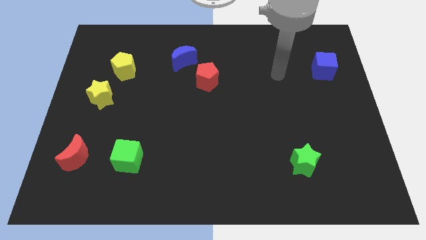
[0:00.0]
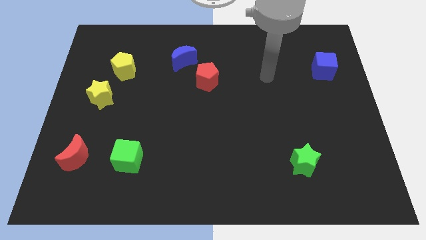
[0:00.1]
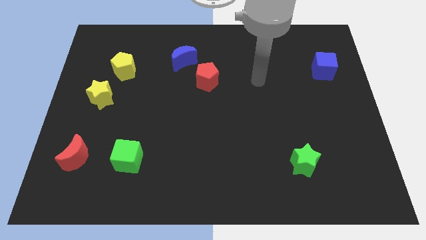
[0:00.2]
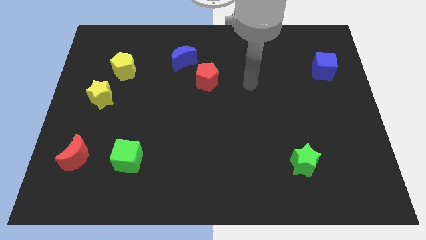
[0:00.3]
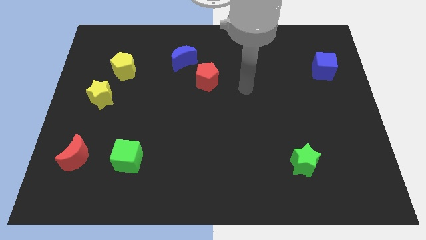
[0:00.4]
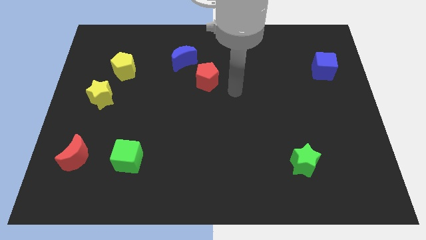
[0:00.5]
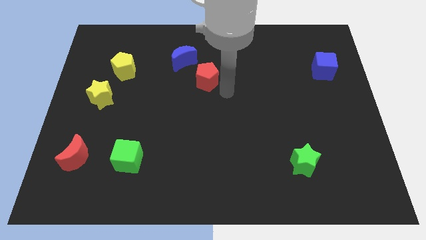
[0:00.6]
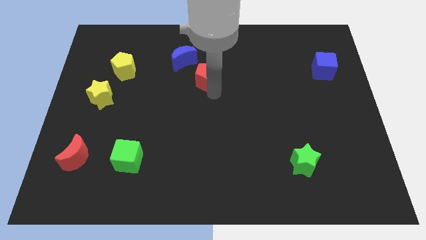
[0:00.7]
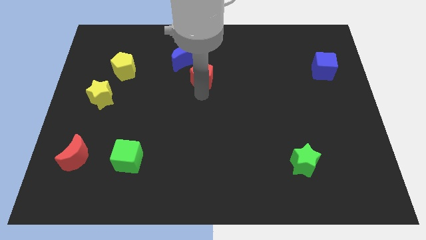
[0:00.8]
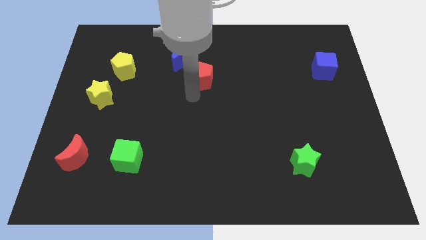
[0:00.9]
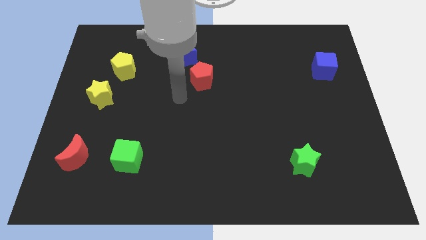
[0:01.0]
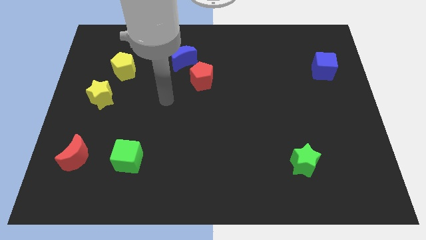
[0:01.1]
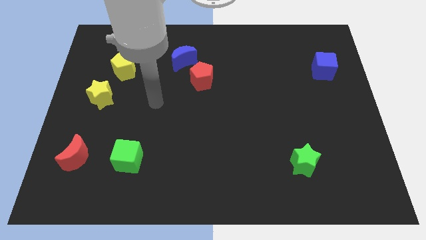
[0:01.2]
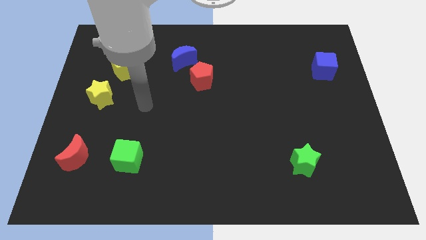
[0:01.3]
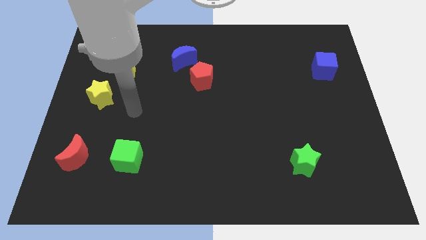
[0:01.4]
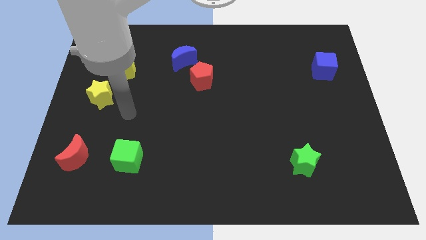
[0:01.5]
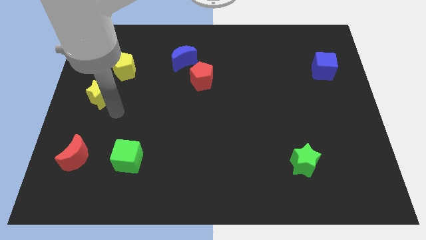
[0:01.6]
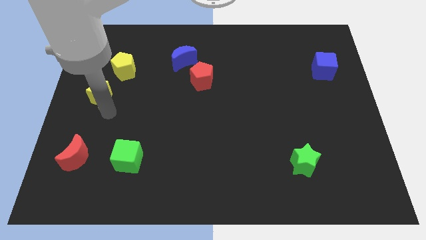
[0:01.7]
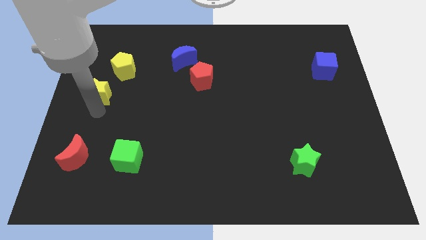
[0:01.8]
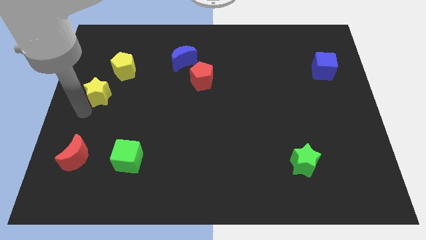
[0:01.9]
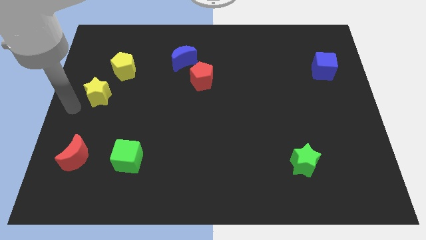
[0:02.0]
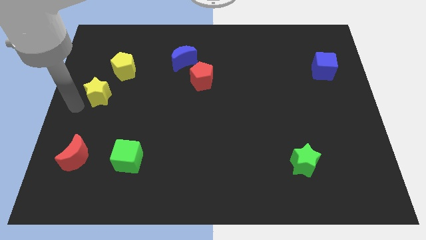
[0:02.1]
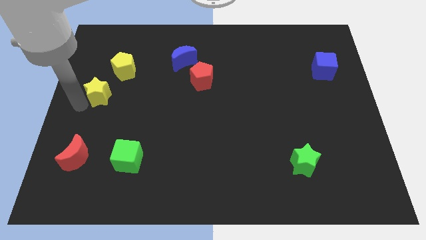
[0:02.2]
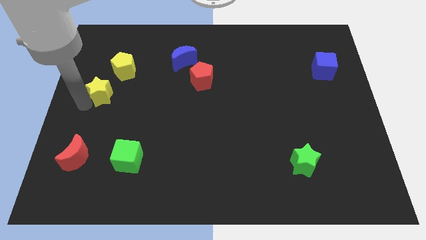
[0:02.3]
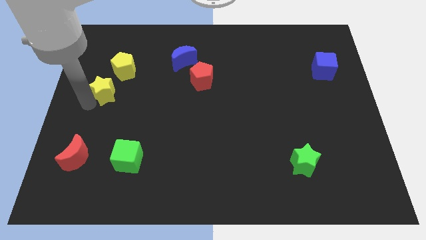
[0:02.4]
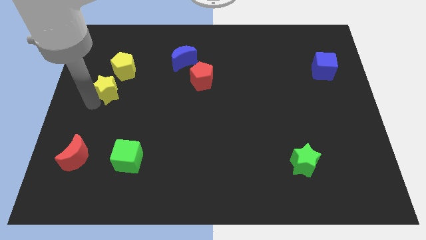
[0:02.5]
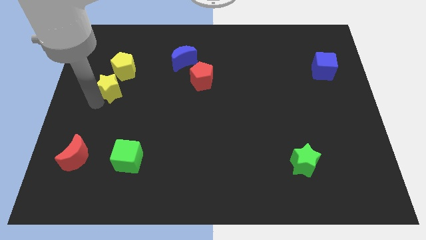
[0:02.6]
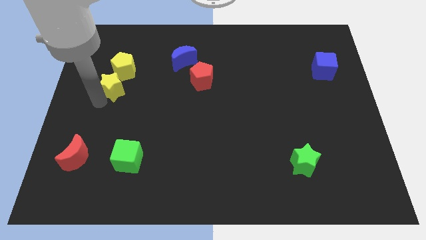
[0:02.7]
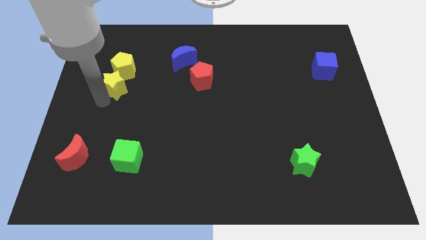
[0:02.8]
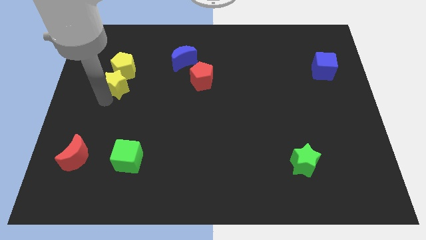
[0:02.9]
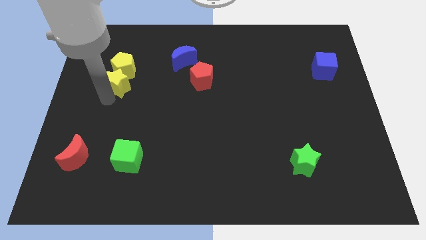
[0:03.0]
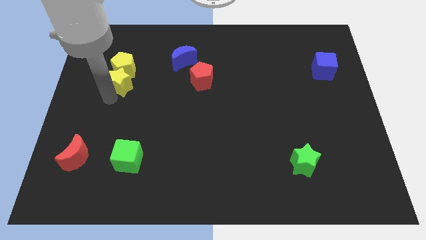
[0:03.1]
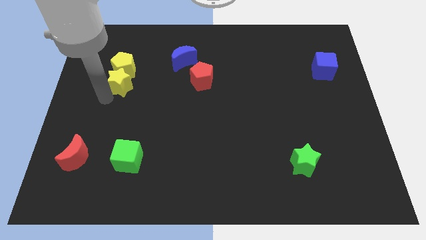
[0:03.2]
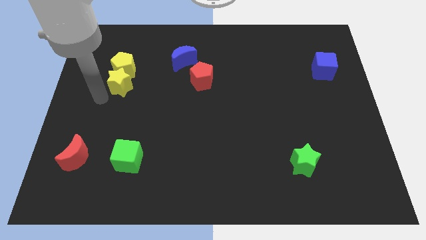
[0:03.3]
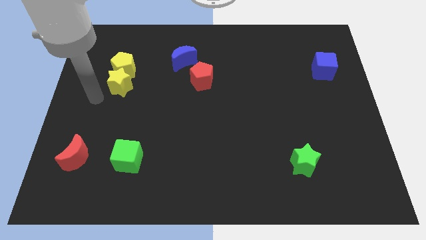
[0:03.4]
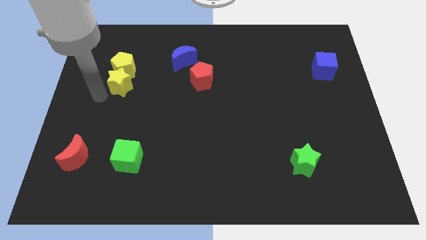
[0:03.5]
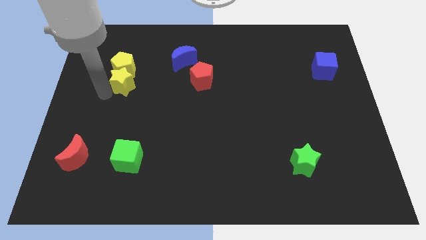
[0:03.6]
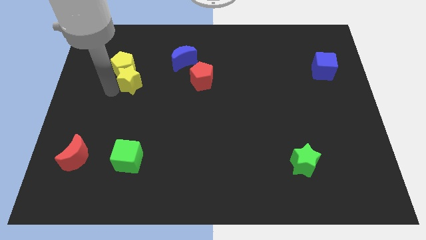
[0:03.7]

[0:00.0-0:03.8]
move the yellow star up and to the right a little

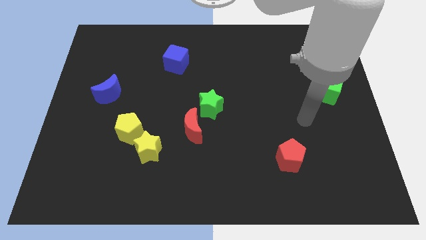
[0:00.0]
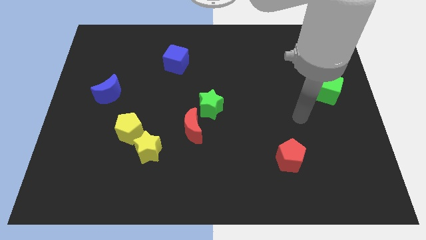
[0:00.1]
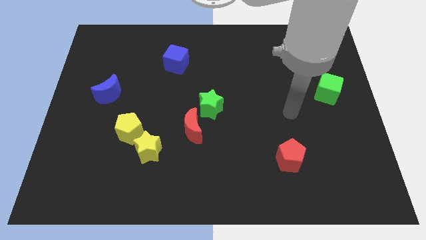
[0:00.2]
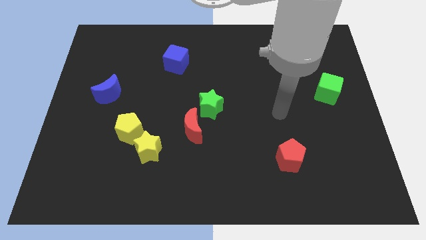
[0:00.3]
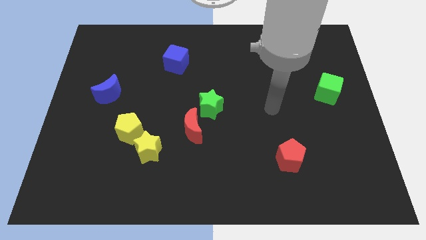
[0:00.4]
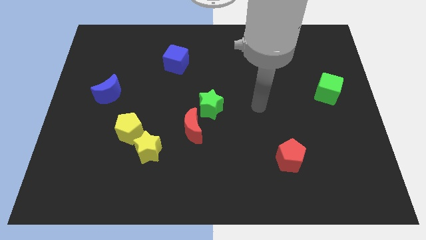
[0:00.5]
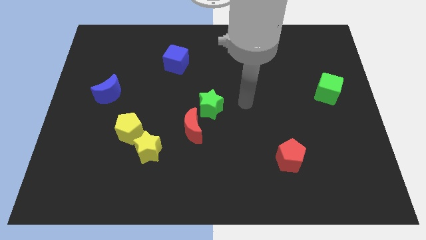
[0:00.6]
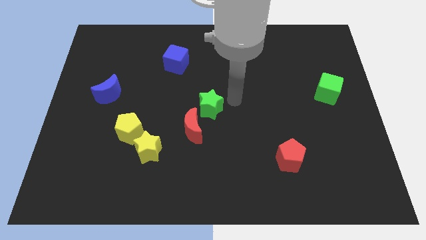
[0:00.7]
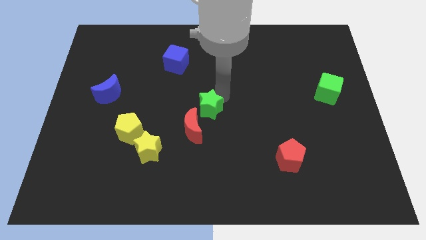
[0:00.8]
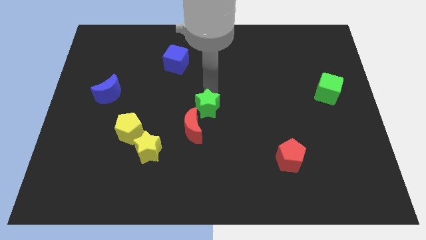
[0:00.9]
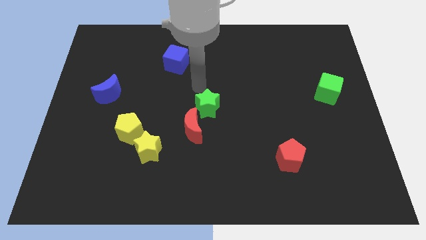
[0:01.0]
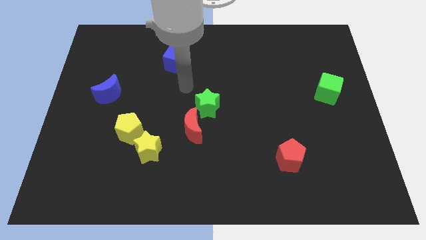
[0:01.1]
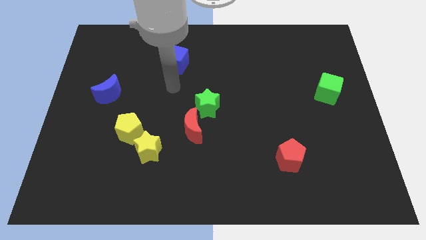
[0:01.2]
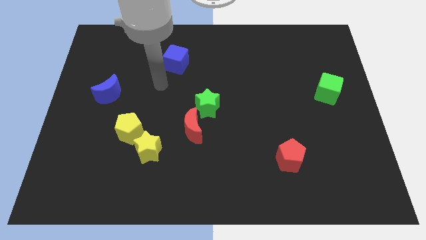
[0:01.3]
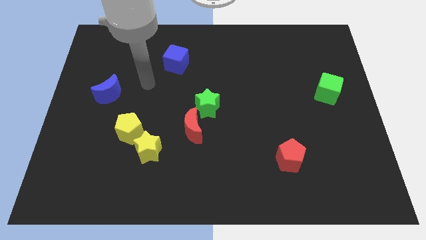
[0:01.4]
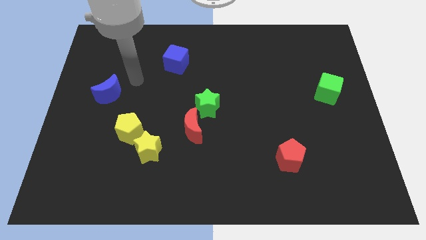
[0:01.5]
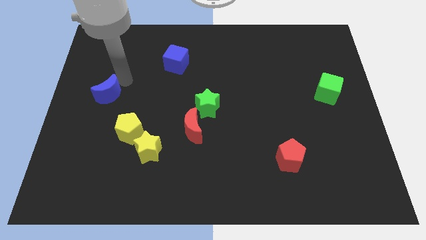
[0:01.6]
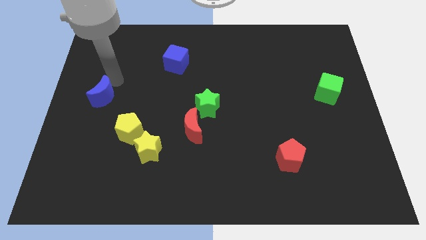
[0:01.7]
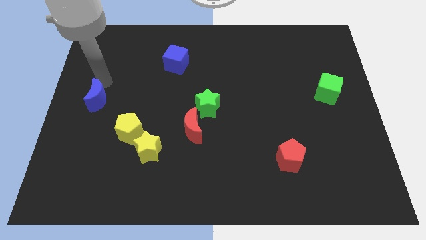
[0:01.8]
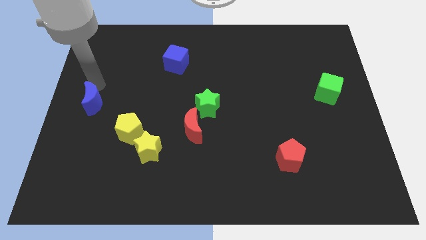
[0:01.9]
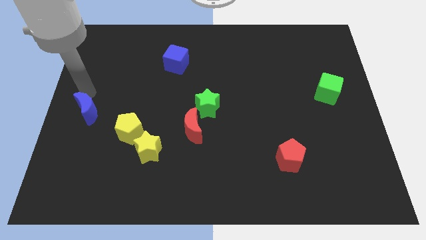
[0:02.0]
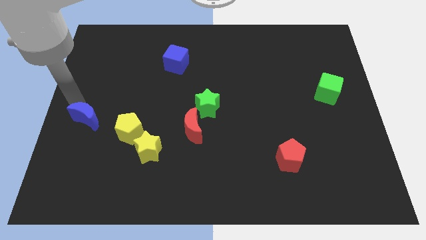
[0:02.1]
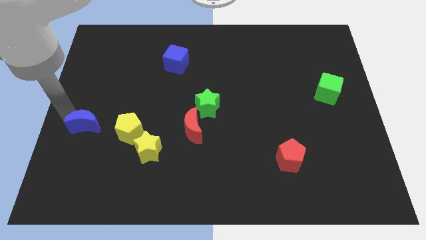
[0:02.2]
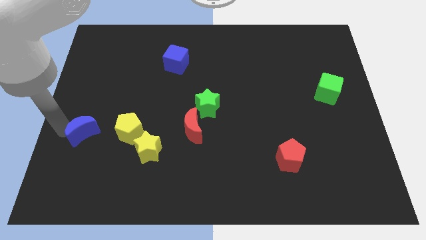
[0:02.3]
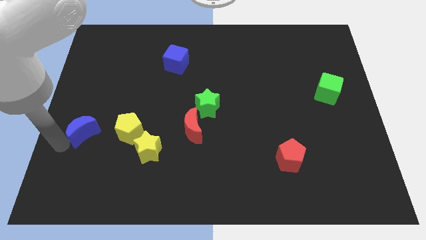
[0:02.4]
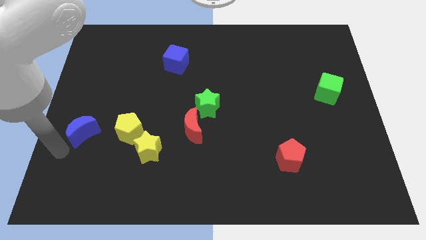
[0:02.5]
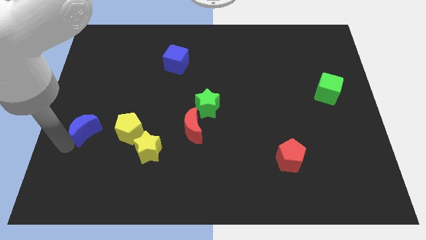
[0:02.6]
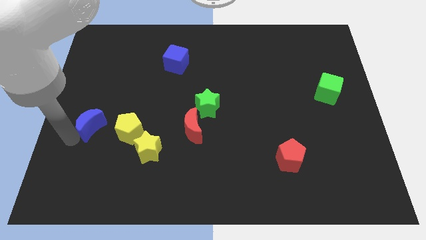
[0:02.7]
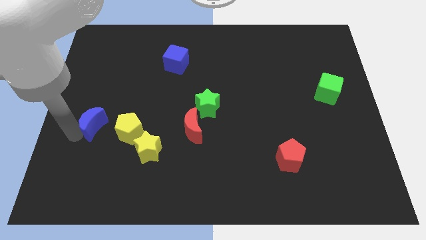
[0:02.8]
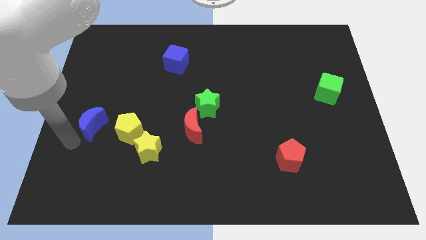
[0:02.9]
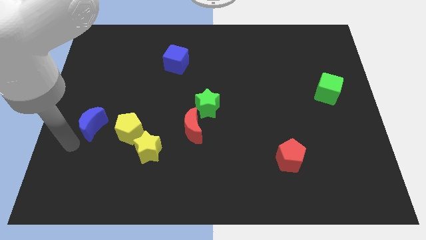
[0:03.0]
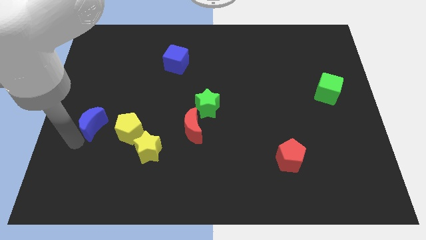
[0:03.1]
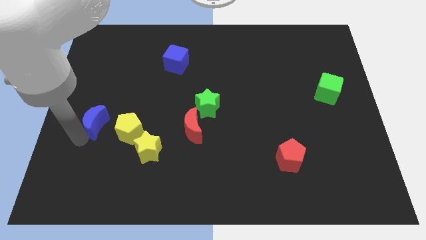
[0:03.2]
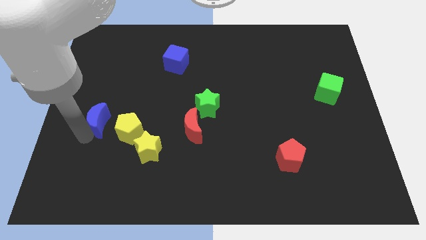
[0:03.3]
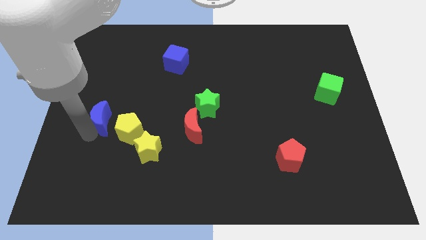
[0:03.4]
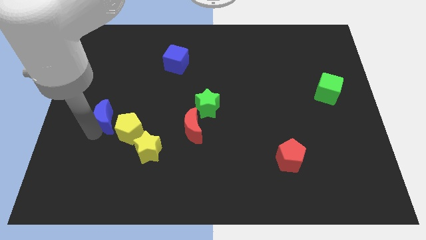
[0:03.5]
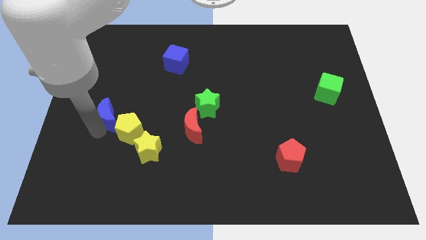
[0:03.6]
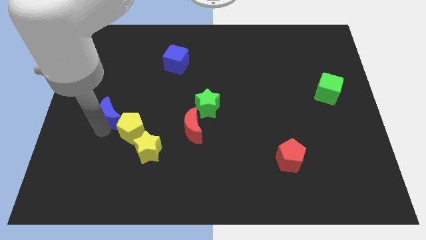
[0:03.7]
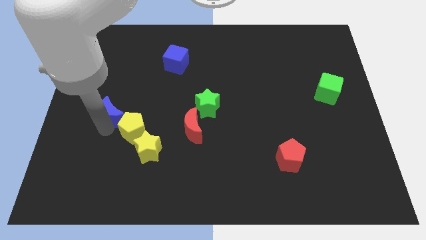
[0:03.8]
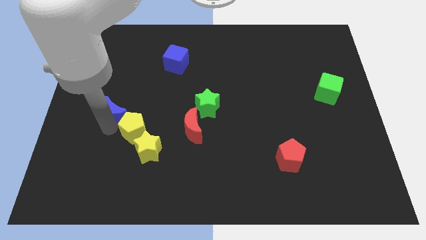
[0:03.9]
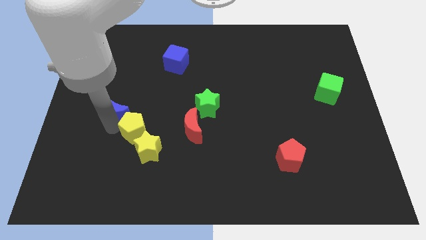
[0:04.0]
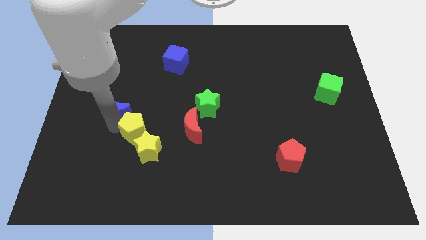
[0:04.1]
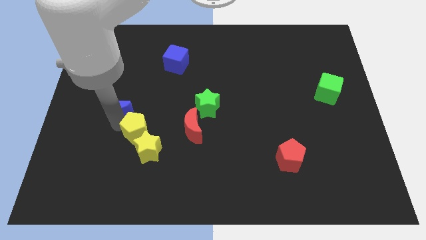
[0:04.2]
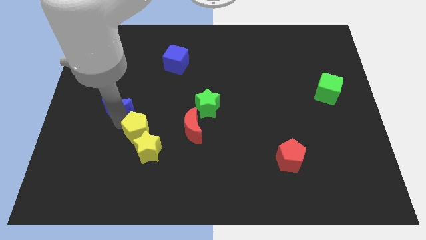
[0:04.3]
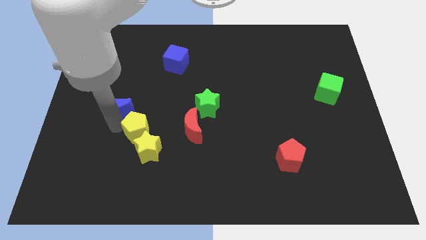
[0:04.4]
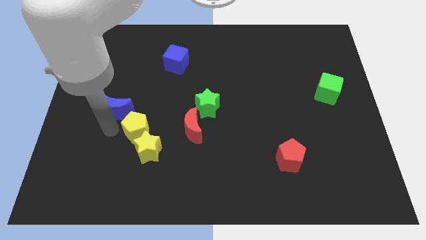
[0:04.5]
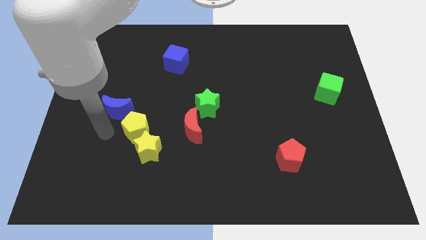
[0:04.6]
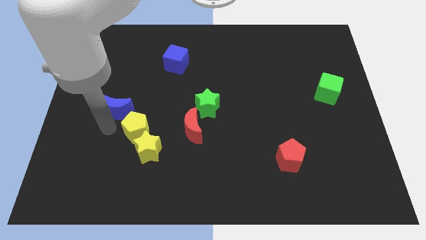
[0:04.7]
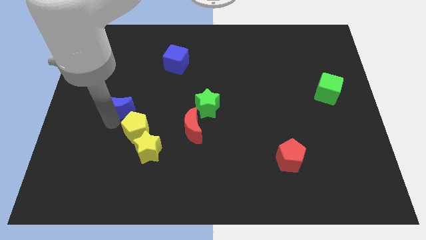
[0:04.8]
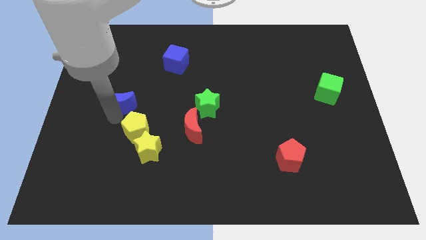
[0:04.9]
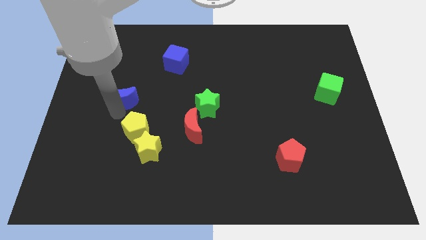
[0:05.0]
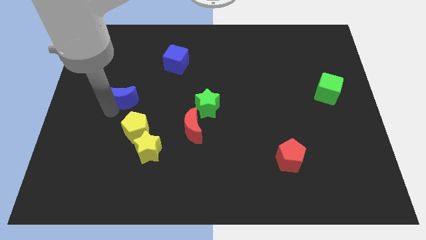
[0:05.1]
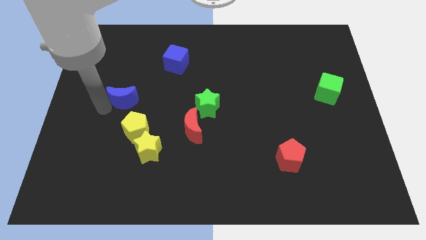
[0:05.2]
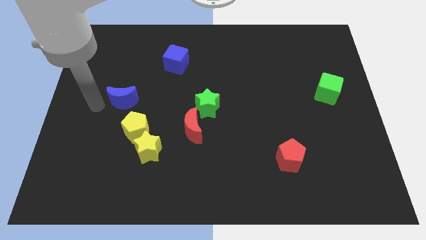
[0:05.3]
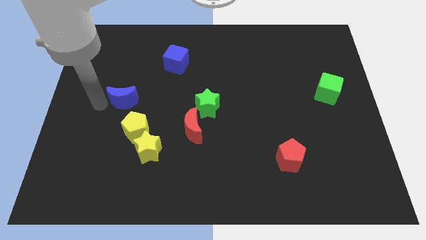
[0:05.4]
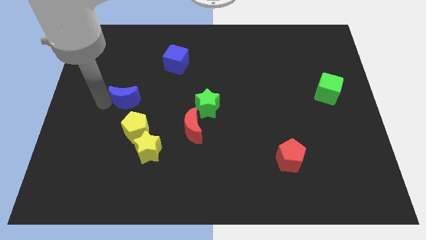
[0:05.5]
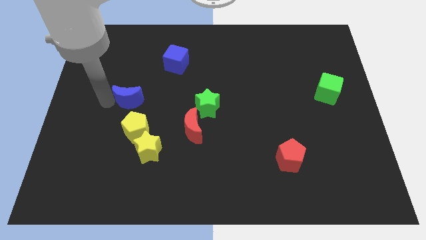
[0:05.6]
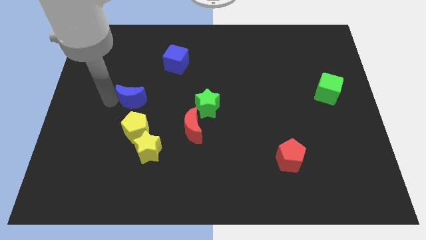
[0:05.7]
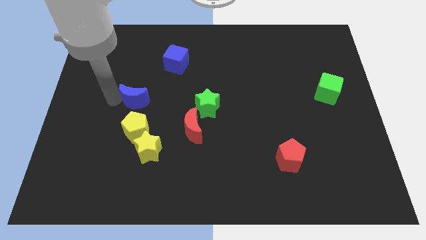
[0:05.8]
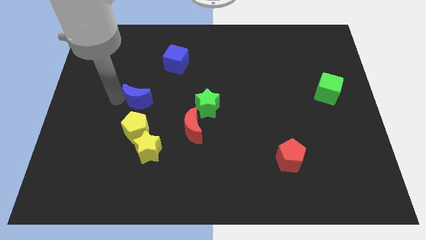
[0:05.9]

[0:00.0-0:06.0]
slightly move the blue moon right
